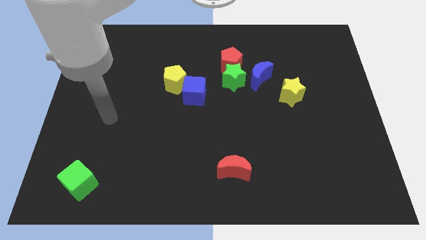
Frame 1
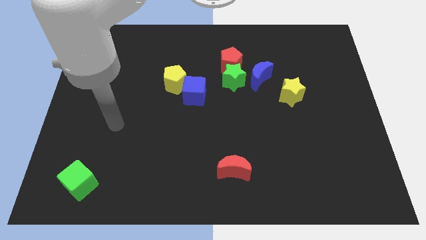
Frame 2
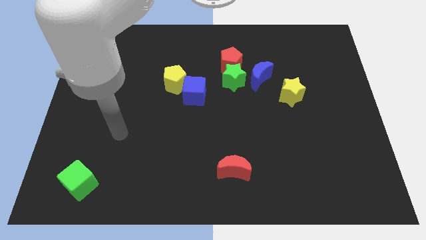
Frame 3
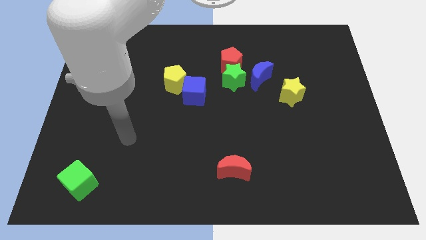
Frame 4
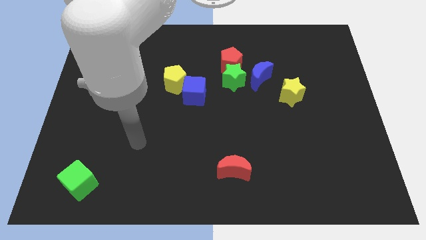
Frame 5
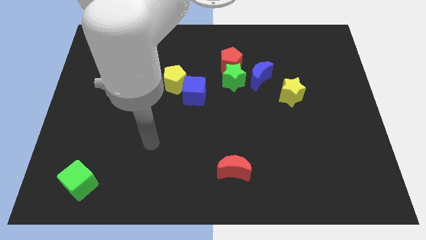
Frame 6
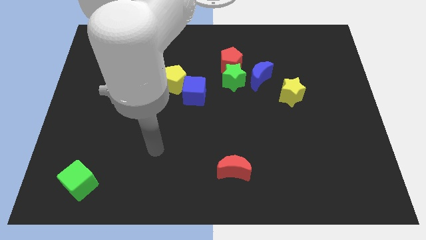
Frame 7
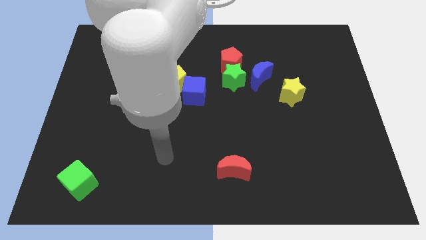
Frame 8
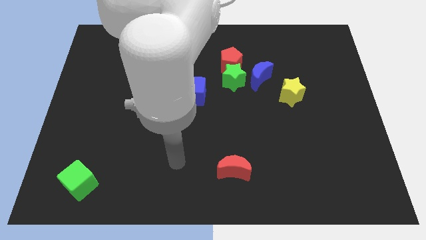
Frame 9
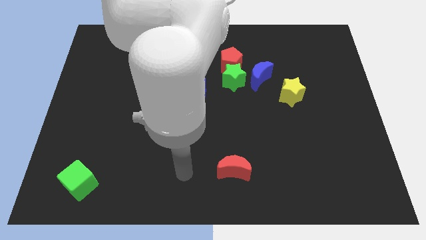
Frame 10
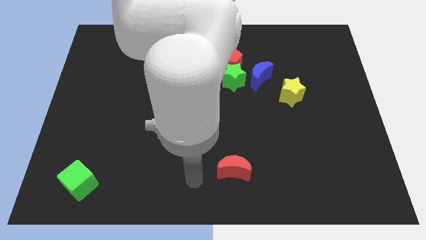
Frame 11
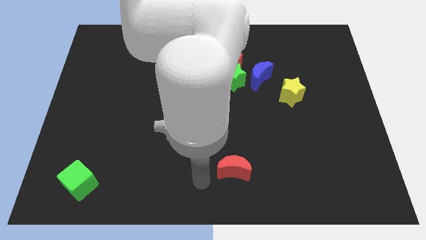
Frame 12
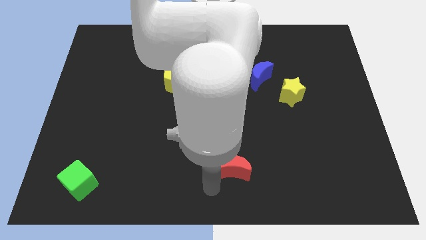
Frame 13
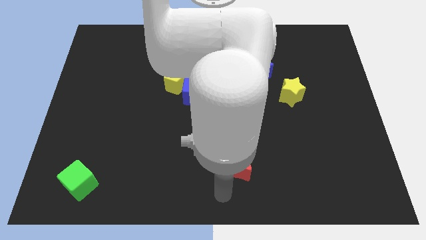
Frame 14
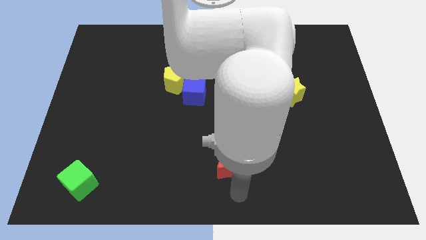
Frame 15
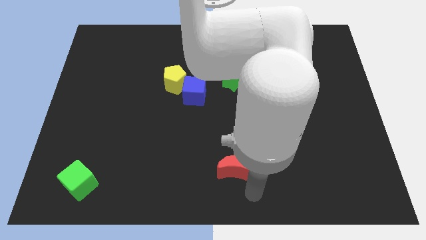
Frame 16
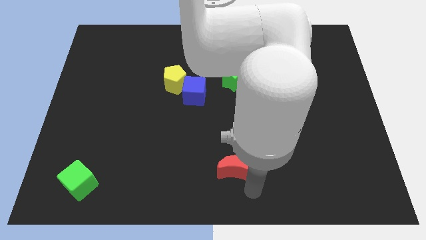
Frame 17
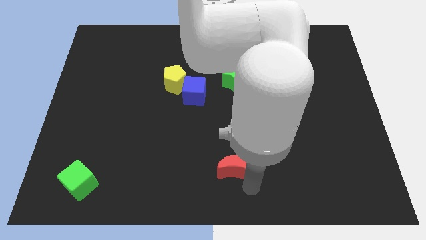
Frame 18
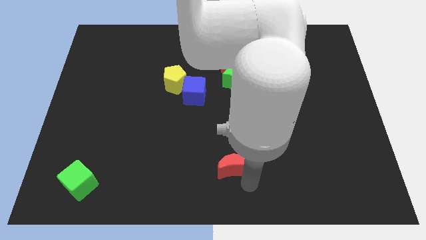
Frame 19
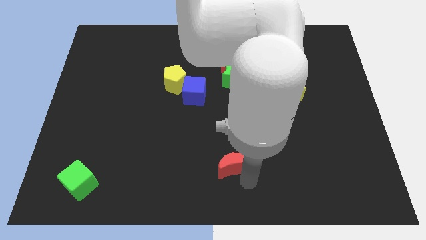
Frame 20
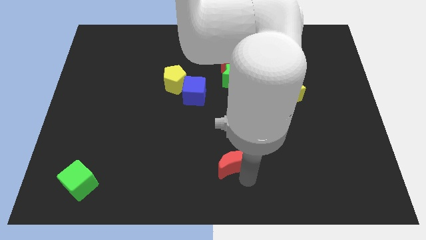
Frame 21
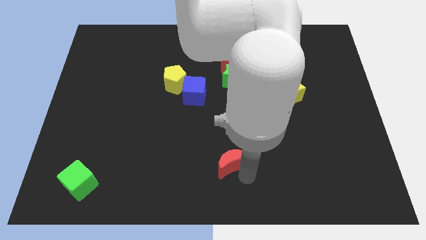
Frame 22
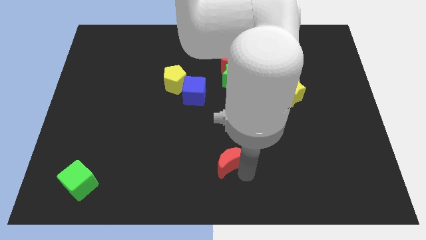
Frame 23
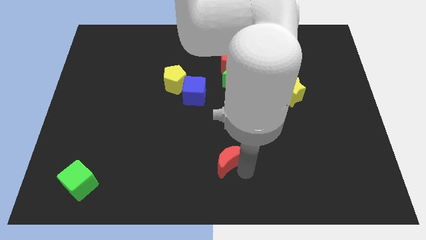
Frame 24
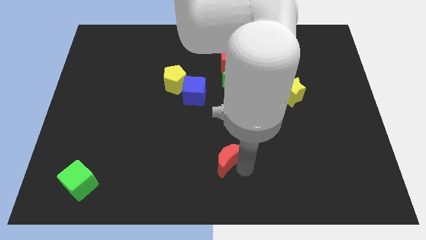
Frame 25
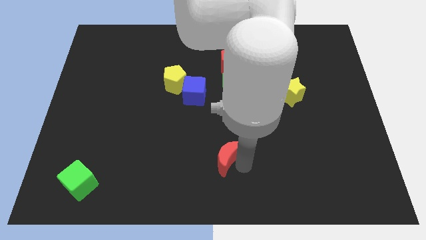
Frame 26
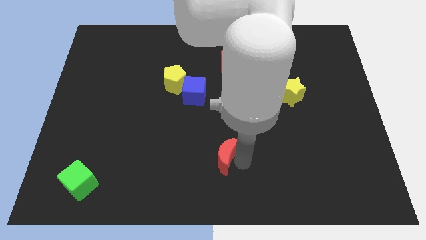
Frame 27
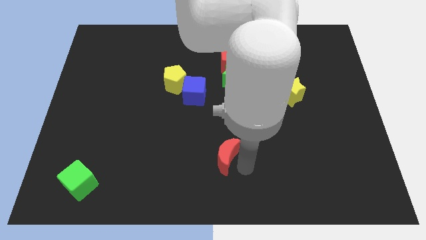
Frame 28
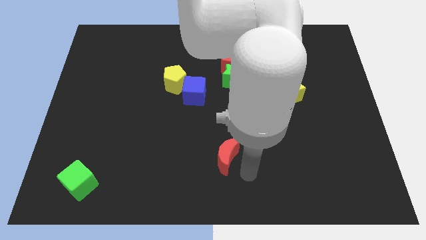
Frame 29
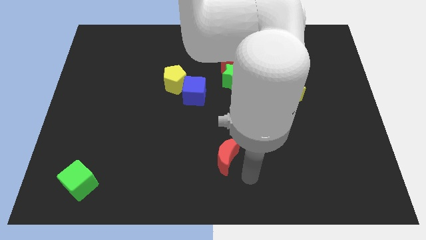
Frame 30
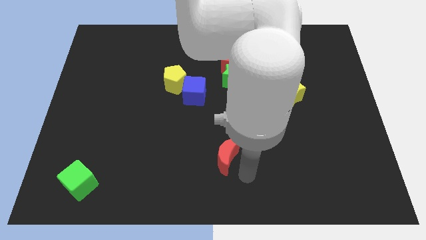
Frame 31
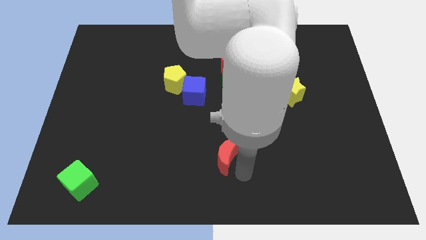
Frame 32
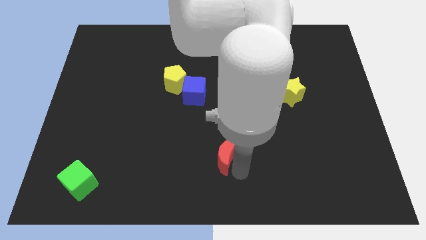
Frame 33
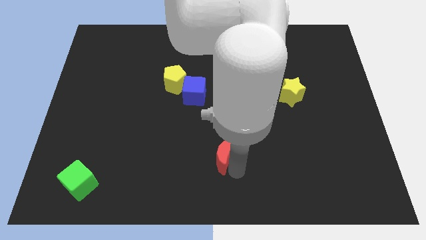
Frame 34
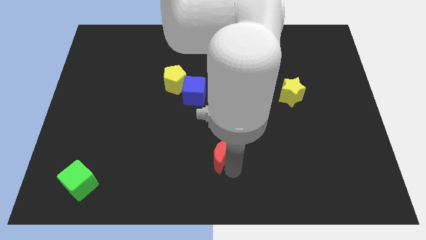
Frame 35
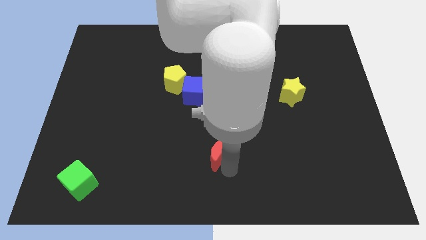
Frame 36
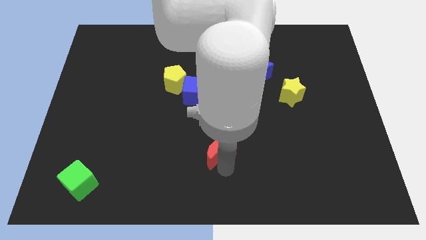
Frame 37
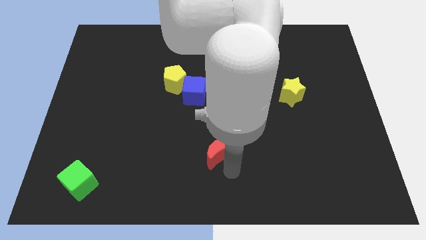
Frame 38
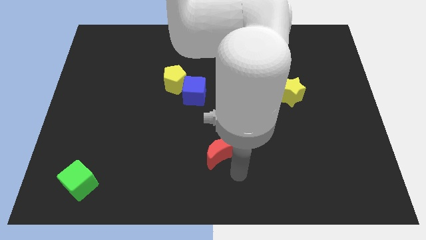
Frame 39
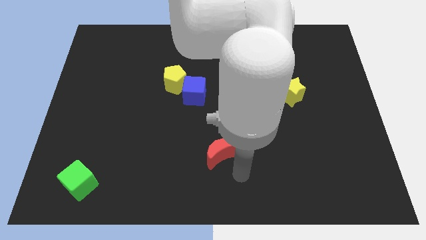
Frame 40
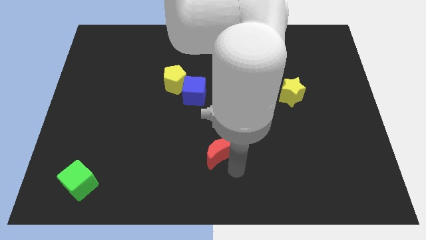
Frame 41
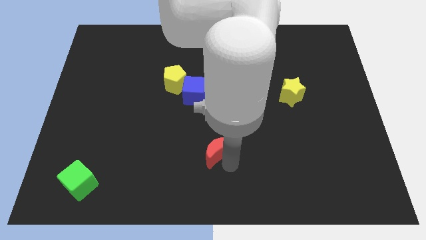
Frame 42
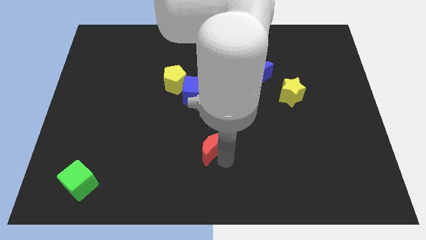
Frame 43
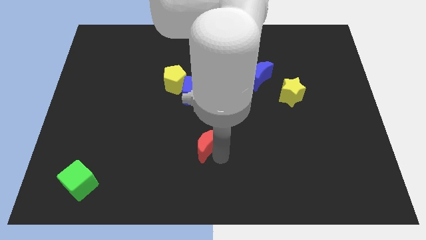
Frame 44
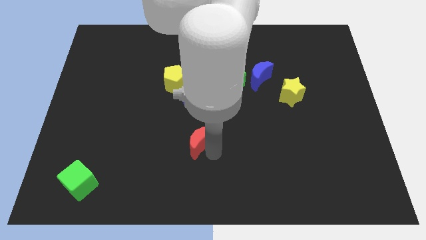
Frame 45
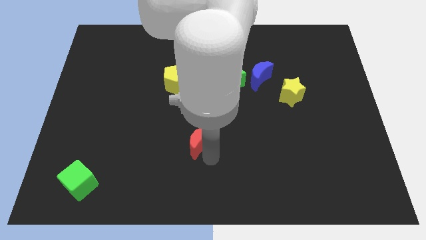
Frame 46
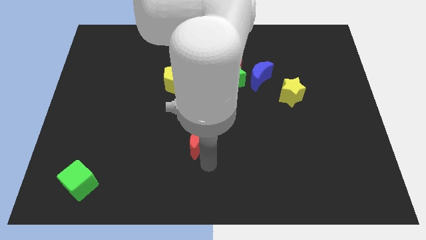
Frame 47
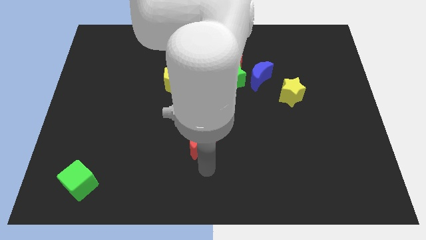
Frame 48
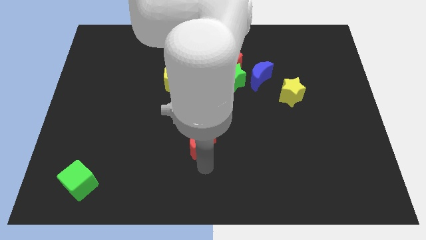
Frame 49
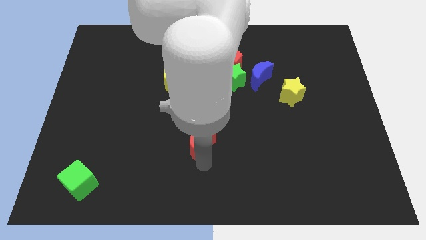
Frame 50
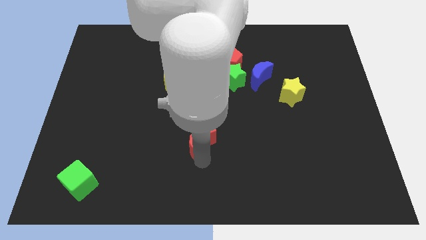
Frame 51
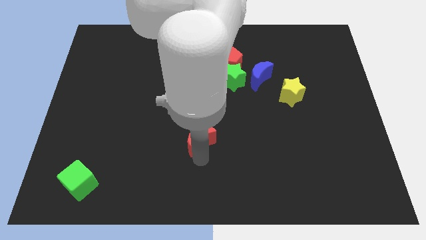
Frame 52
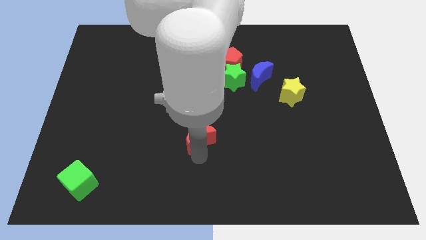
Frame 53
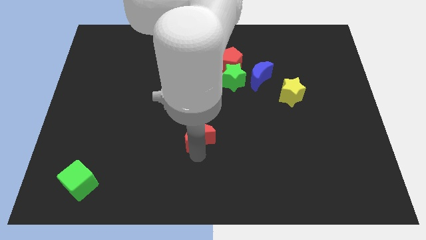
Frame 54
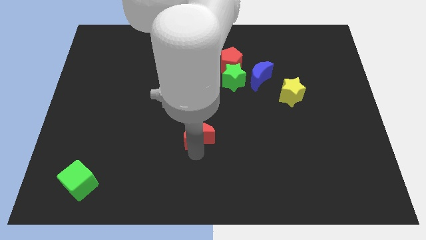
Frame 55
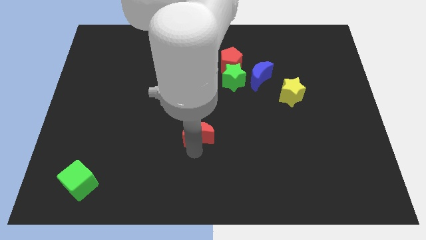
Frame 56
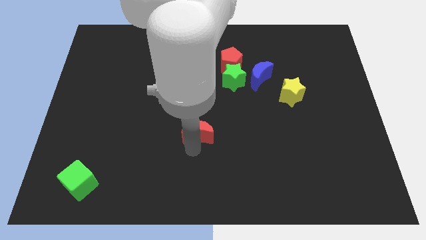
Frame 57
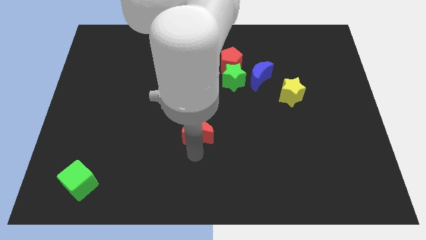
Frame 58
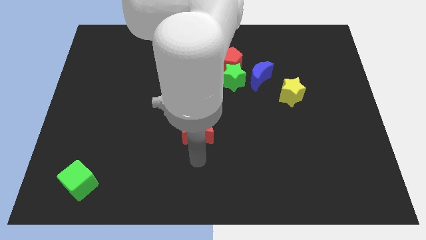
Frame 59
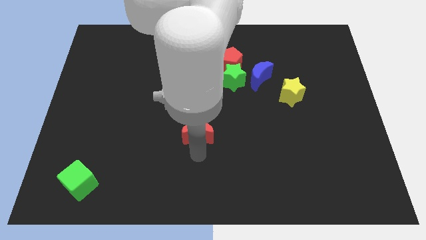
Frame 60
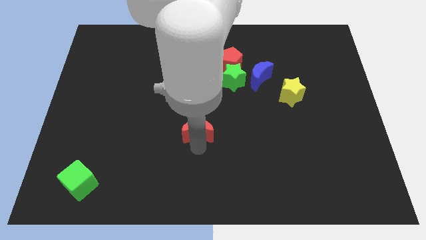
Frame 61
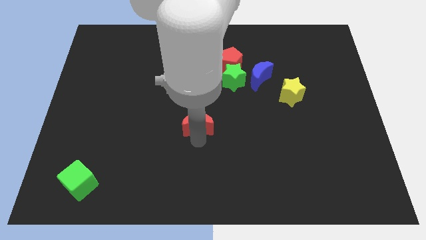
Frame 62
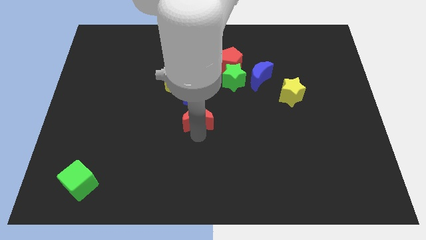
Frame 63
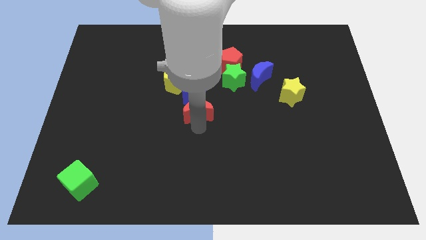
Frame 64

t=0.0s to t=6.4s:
move the red moon next to the blue cube

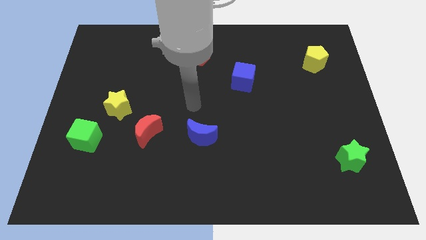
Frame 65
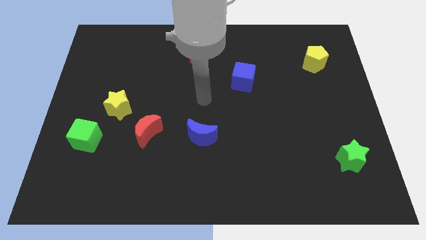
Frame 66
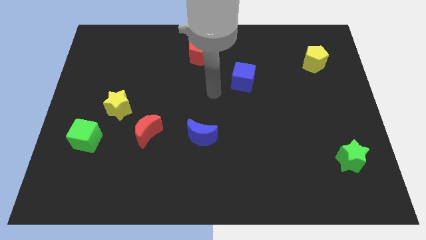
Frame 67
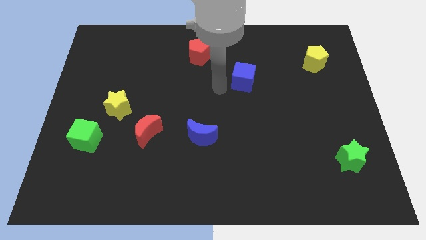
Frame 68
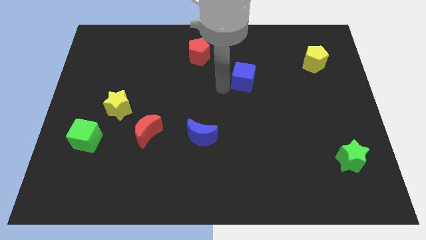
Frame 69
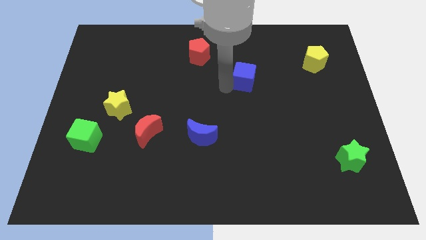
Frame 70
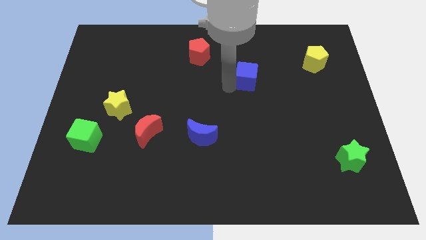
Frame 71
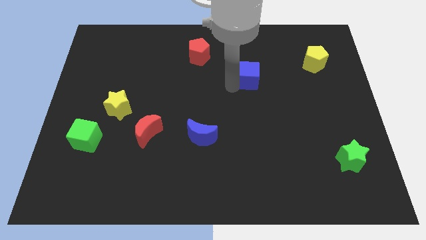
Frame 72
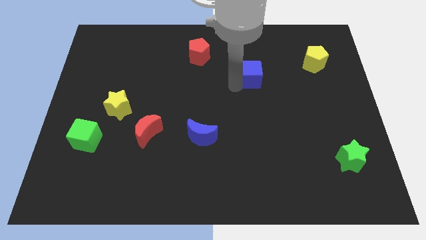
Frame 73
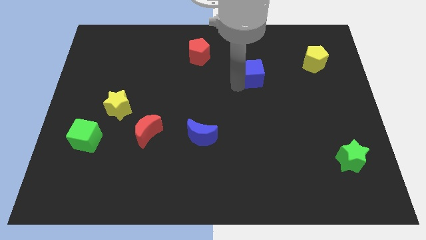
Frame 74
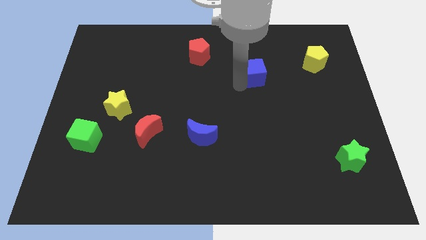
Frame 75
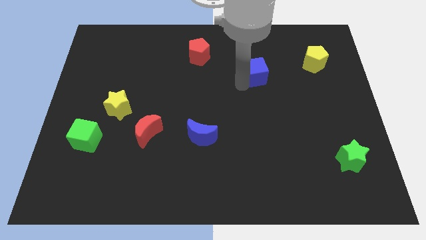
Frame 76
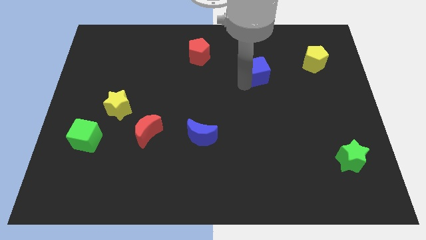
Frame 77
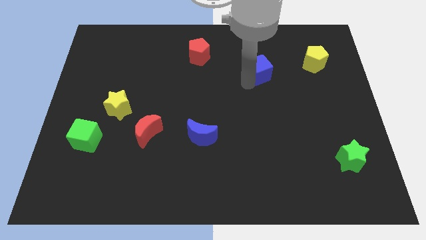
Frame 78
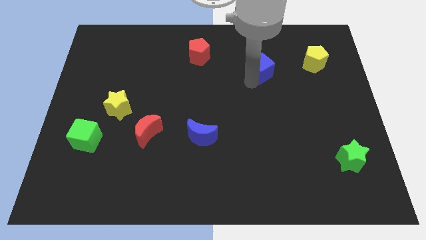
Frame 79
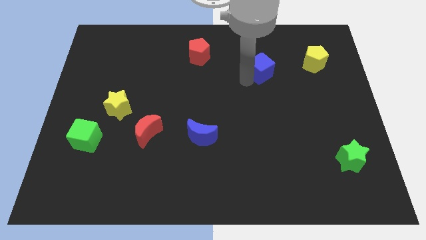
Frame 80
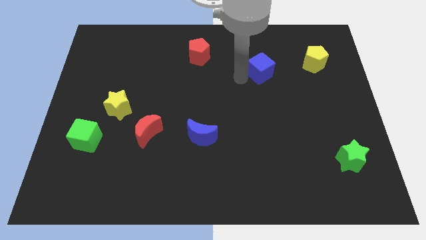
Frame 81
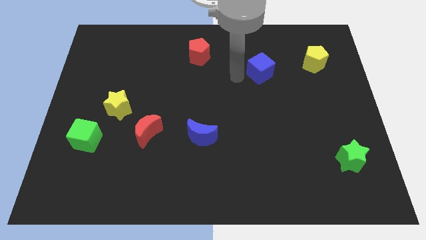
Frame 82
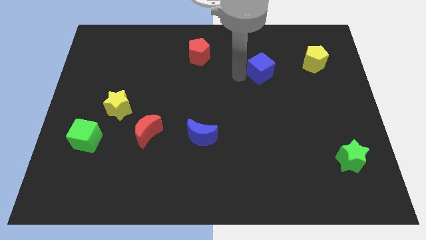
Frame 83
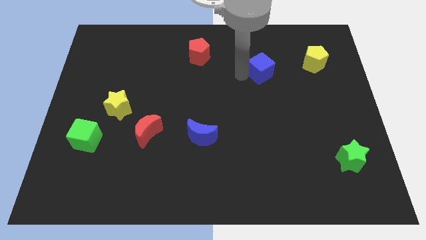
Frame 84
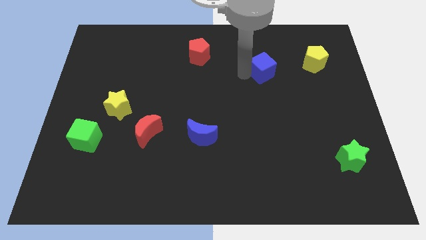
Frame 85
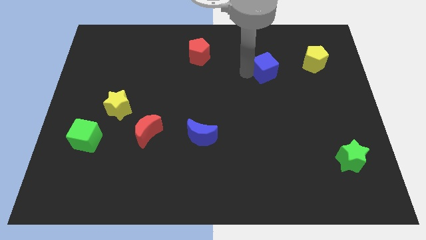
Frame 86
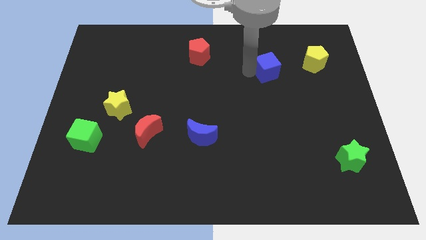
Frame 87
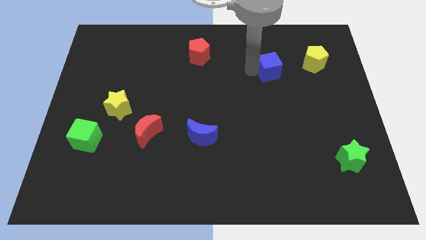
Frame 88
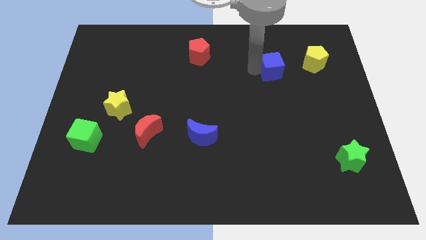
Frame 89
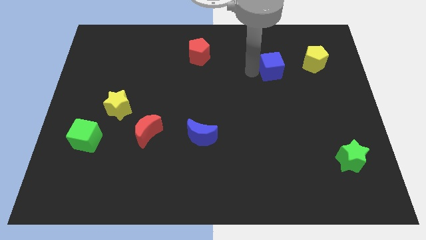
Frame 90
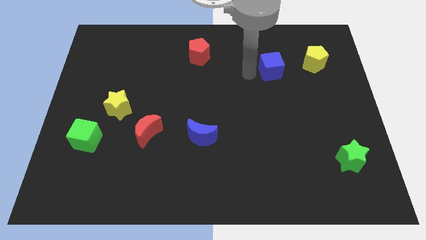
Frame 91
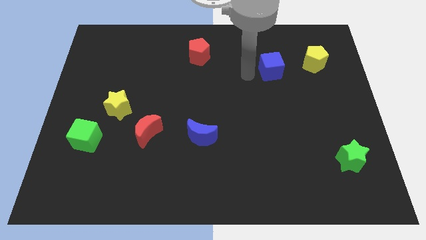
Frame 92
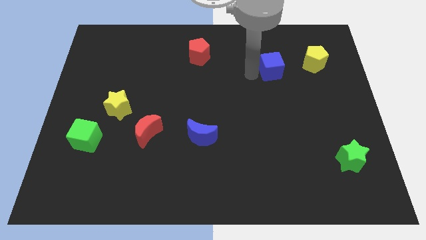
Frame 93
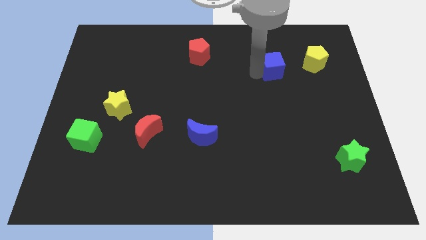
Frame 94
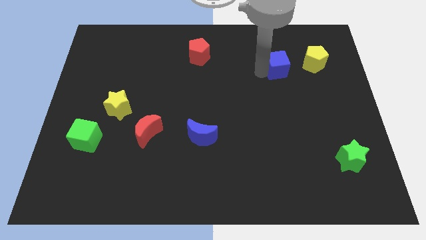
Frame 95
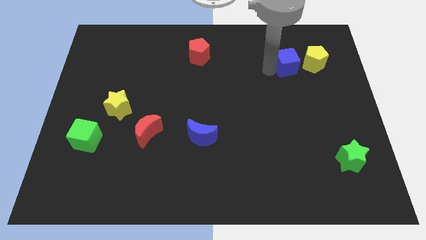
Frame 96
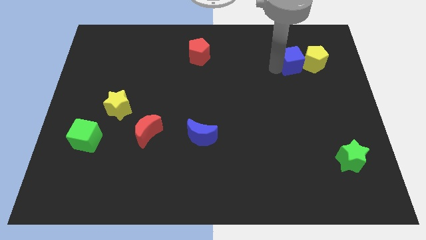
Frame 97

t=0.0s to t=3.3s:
move the blue cube towards the yellow pentagon
